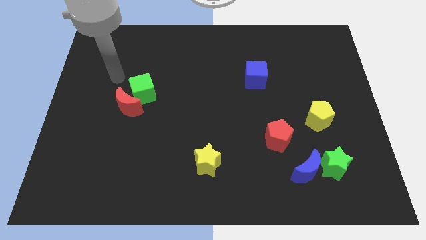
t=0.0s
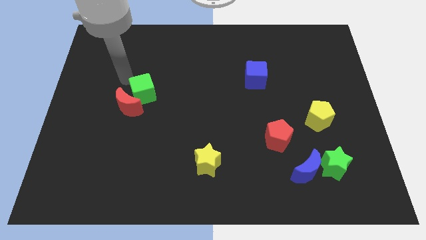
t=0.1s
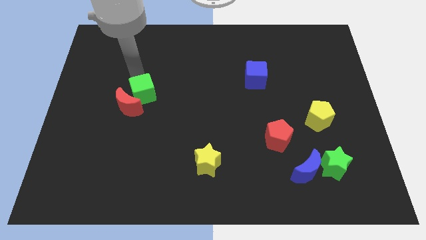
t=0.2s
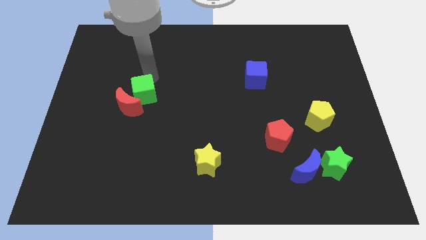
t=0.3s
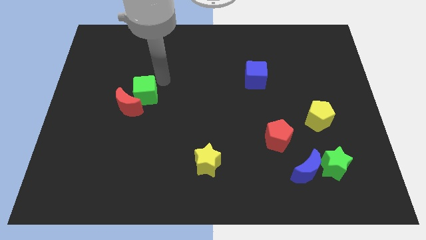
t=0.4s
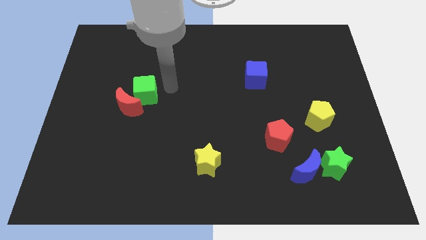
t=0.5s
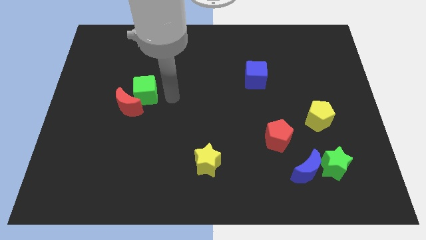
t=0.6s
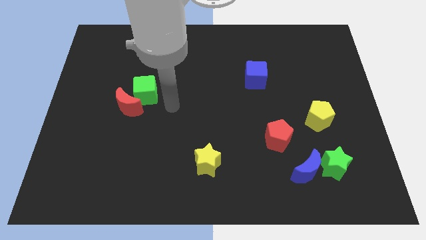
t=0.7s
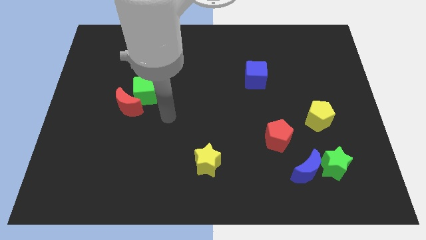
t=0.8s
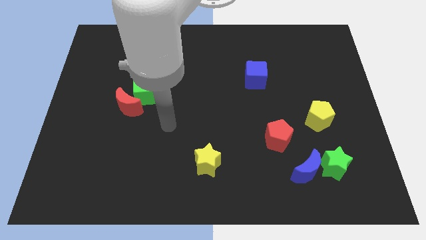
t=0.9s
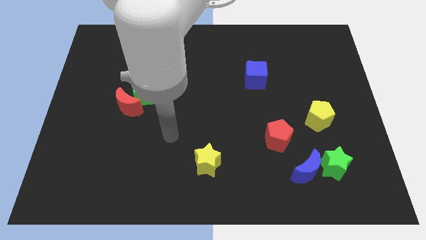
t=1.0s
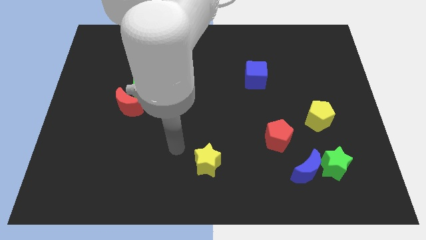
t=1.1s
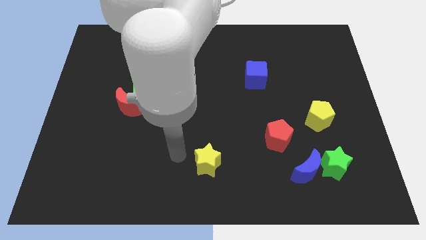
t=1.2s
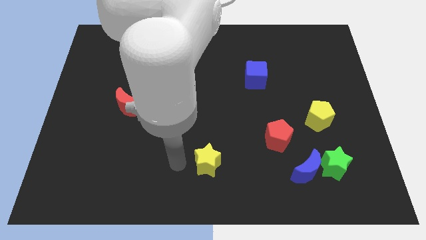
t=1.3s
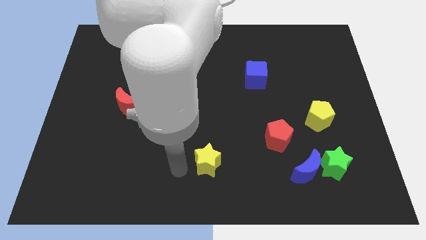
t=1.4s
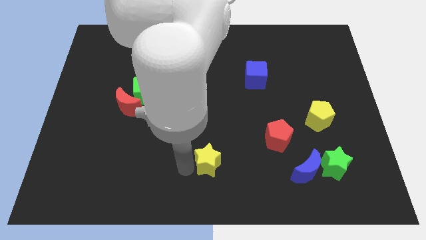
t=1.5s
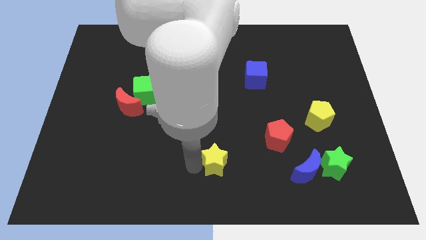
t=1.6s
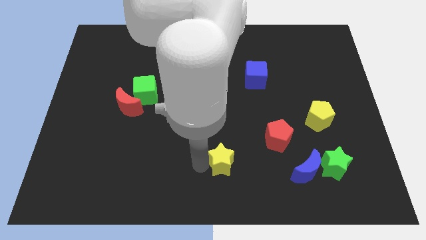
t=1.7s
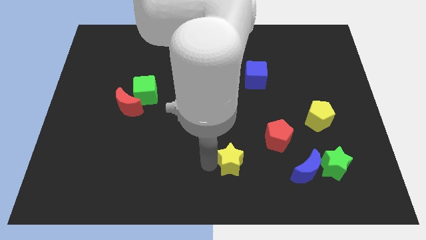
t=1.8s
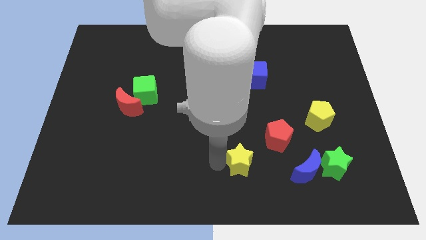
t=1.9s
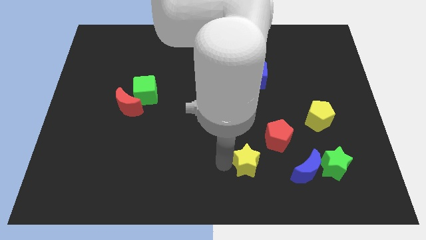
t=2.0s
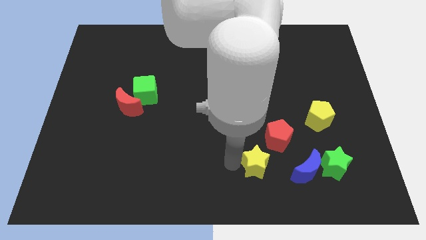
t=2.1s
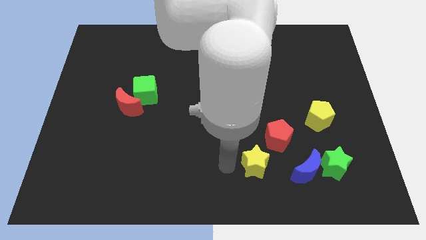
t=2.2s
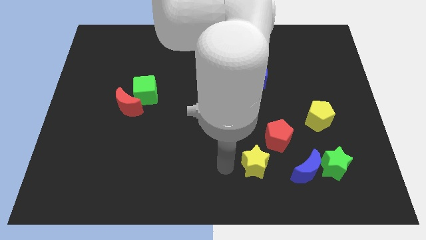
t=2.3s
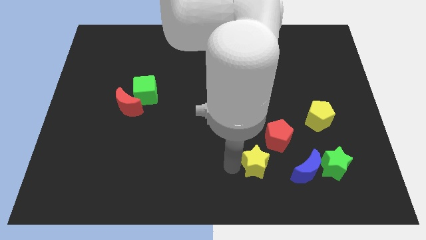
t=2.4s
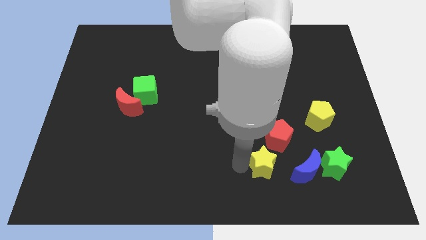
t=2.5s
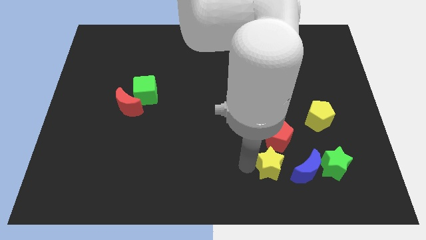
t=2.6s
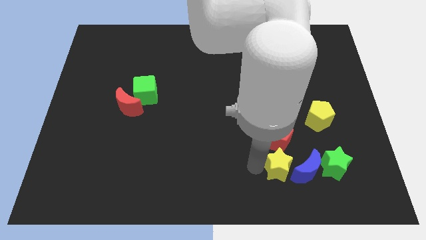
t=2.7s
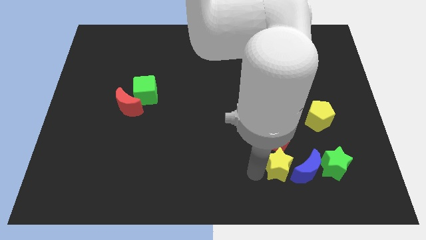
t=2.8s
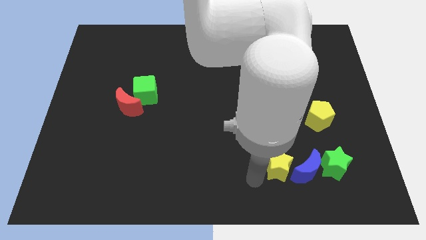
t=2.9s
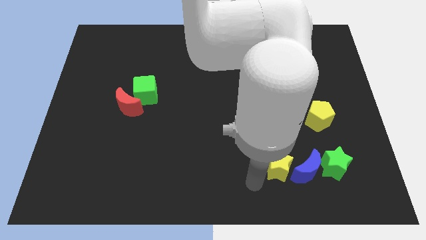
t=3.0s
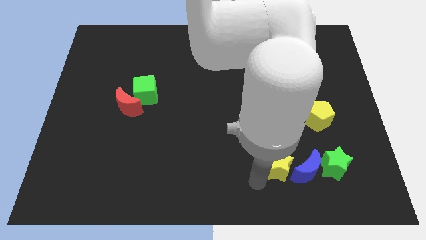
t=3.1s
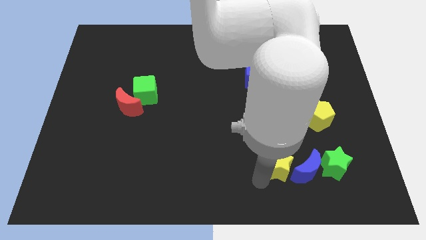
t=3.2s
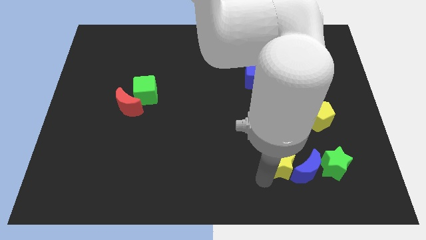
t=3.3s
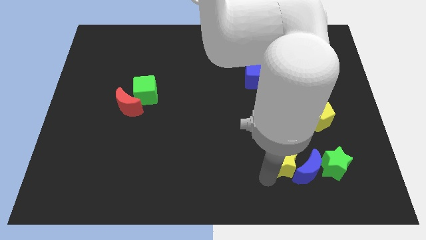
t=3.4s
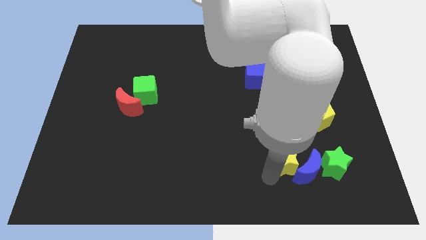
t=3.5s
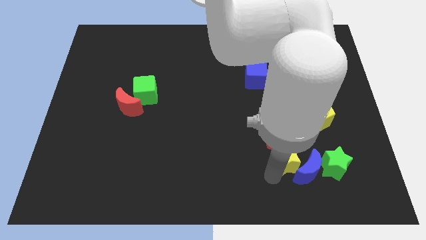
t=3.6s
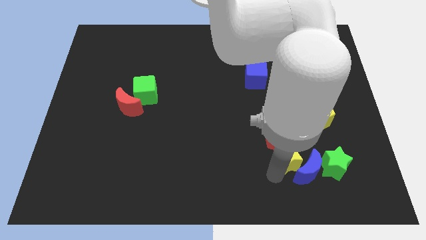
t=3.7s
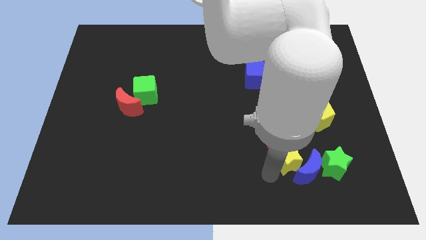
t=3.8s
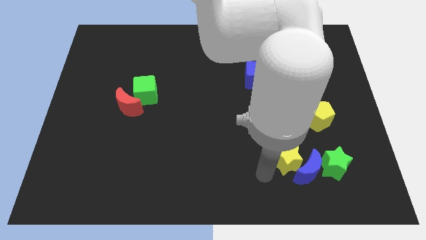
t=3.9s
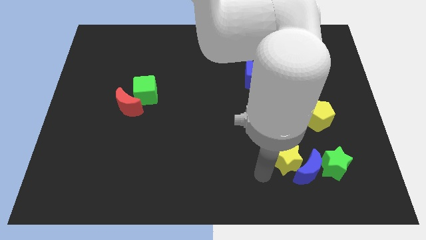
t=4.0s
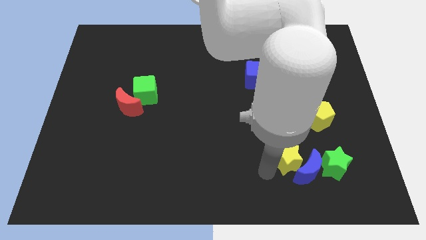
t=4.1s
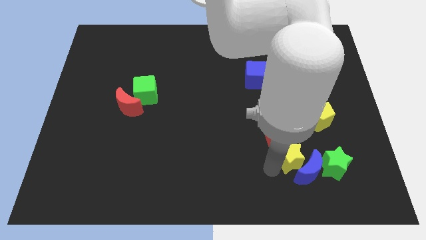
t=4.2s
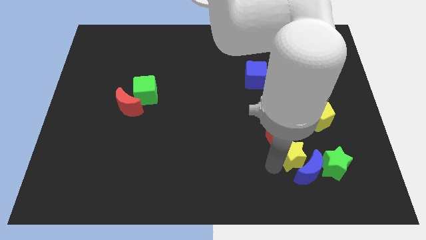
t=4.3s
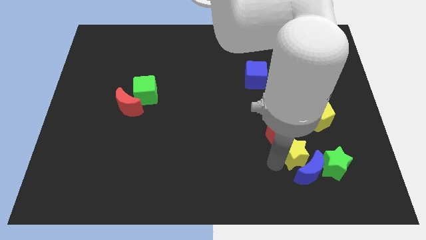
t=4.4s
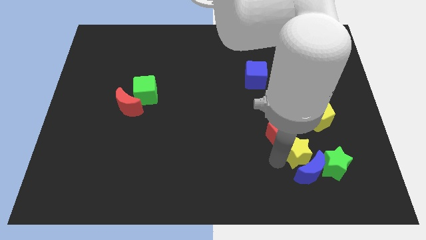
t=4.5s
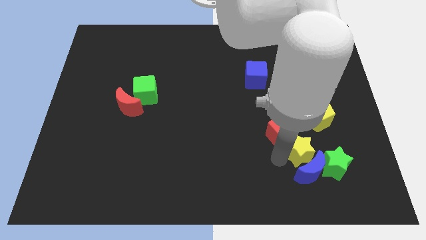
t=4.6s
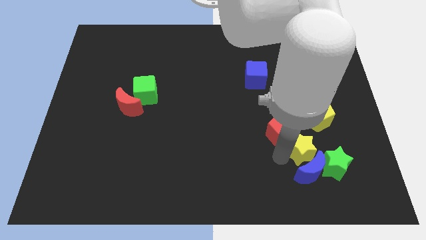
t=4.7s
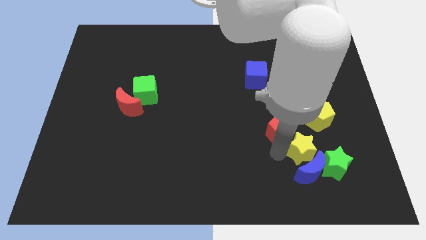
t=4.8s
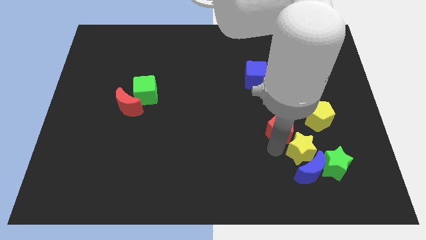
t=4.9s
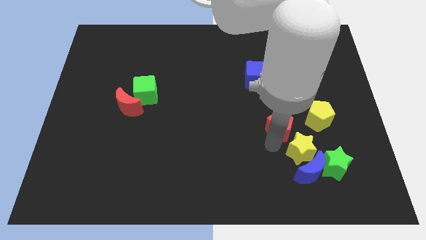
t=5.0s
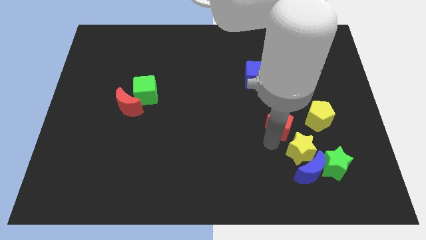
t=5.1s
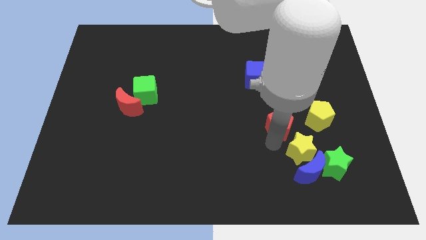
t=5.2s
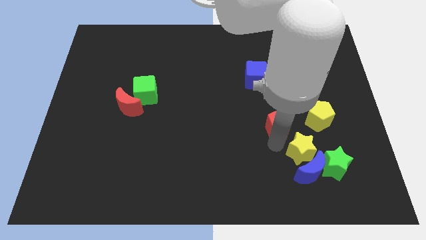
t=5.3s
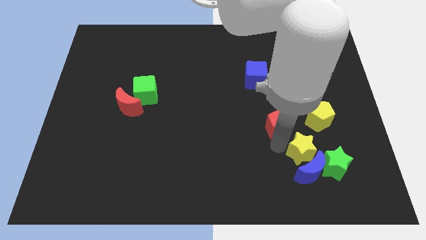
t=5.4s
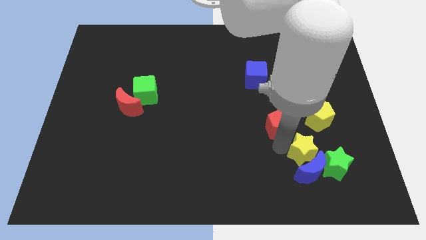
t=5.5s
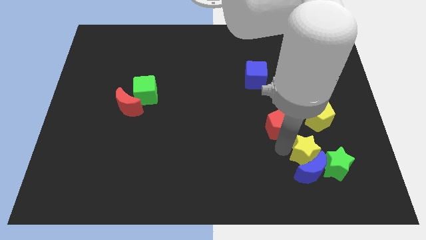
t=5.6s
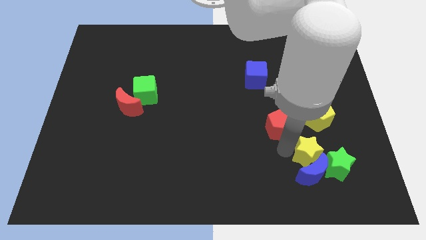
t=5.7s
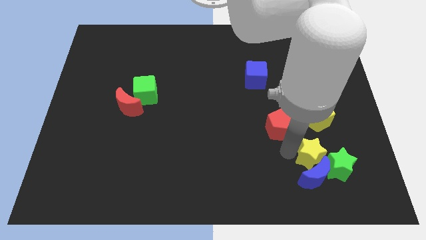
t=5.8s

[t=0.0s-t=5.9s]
put the yellow star towards the green star

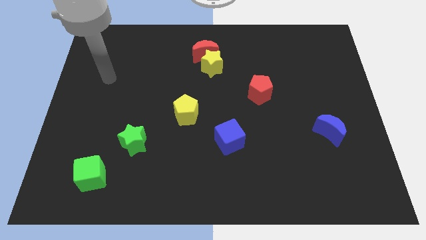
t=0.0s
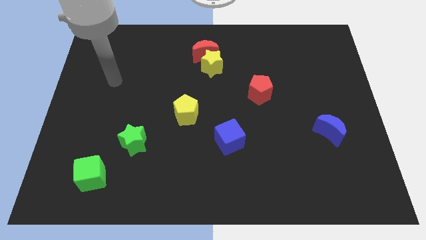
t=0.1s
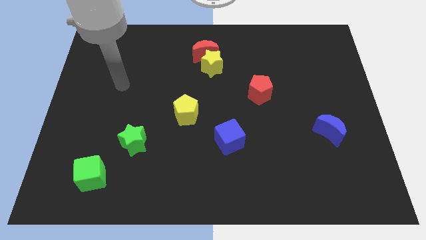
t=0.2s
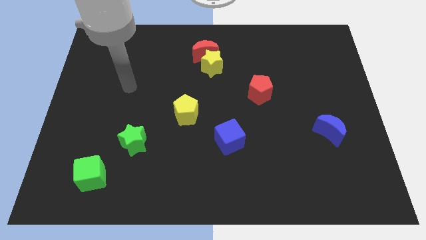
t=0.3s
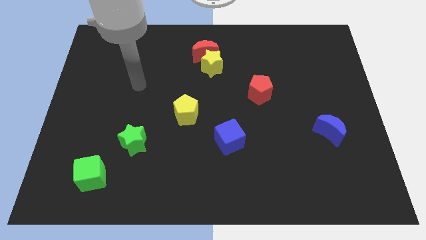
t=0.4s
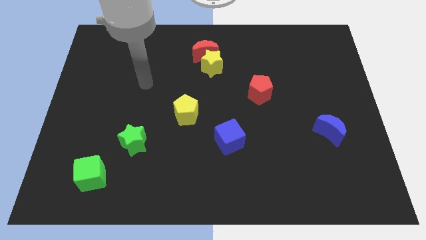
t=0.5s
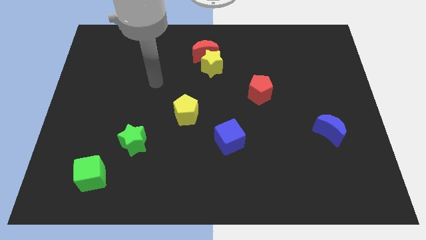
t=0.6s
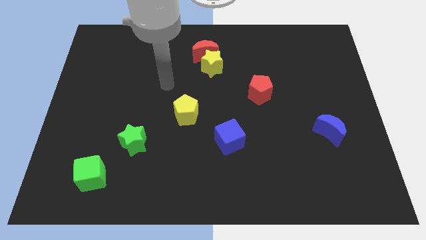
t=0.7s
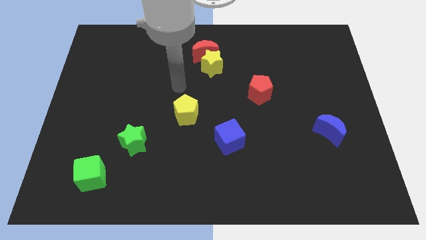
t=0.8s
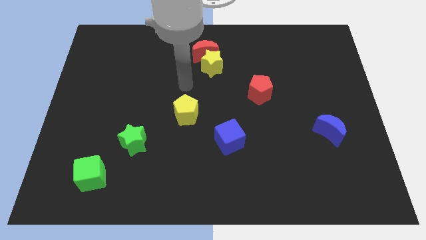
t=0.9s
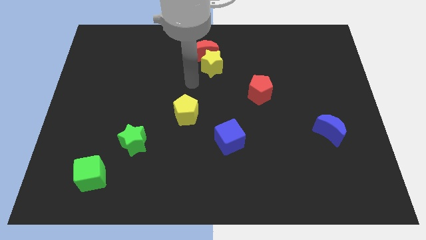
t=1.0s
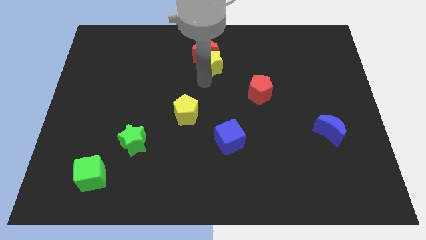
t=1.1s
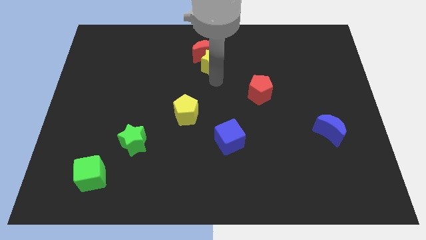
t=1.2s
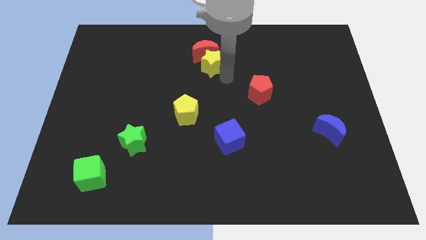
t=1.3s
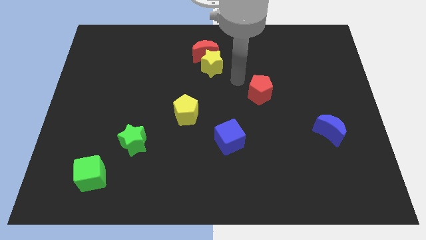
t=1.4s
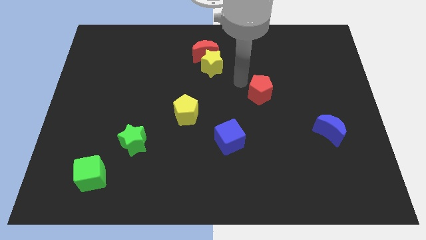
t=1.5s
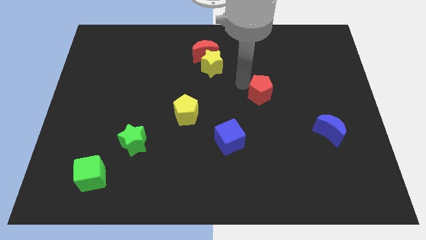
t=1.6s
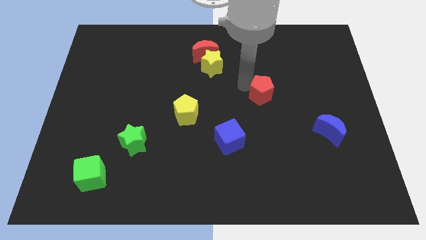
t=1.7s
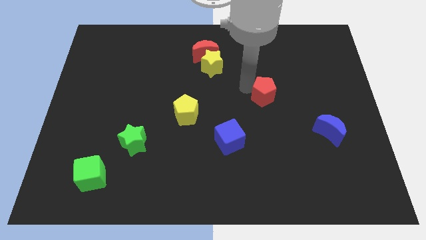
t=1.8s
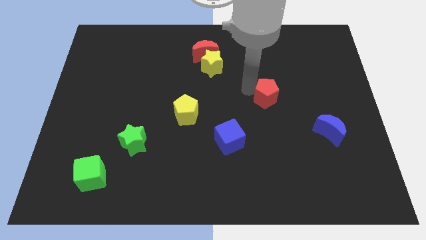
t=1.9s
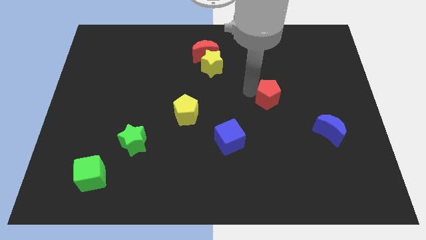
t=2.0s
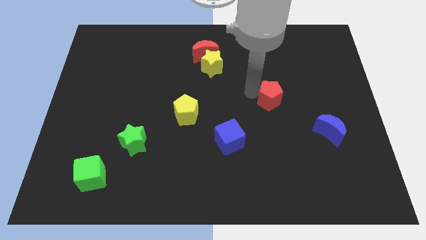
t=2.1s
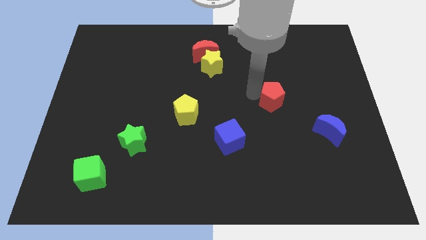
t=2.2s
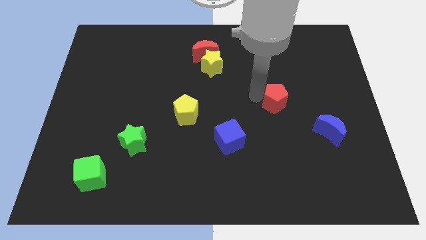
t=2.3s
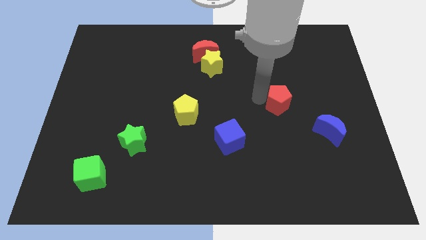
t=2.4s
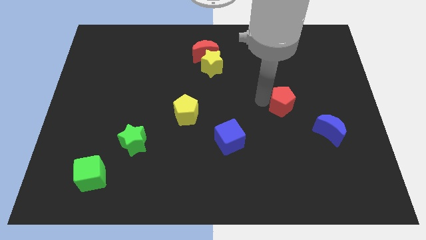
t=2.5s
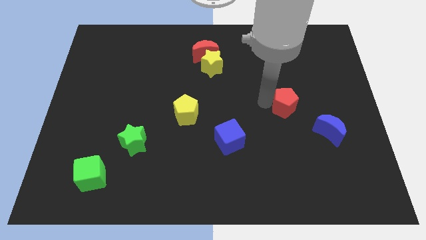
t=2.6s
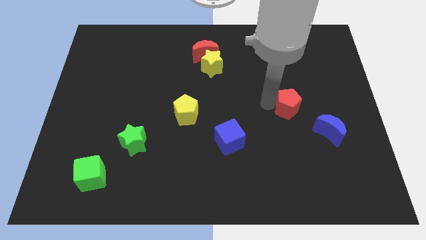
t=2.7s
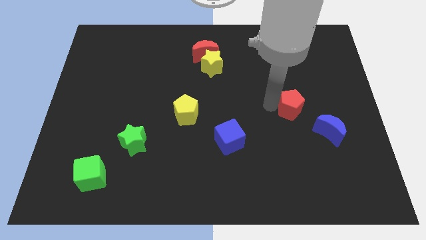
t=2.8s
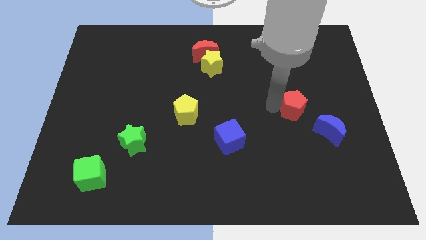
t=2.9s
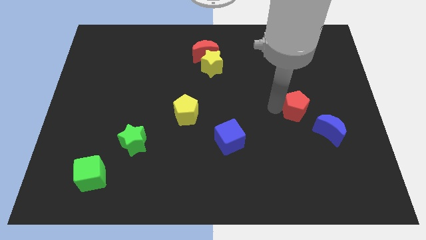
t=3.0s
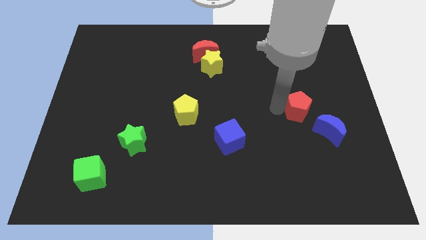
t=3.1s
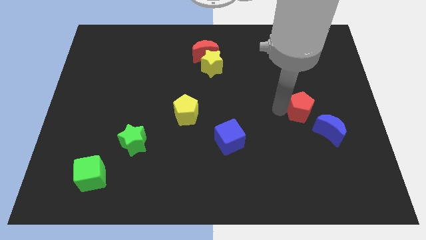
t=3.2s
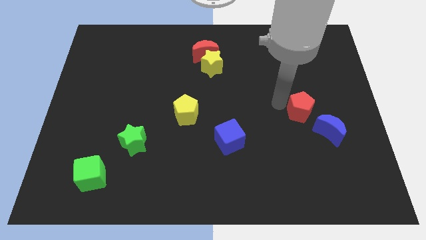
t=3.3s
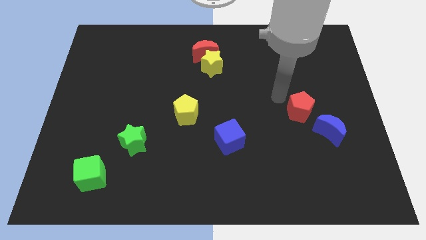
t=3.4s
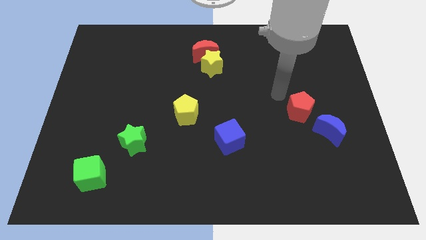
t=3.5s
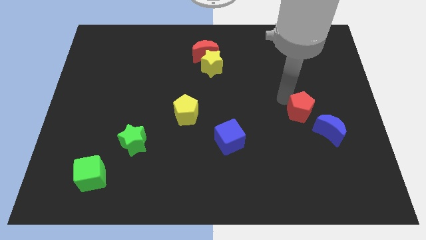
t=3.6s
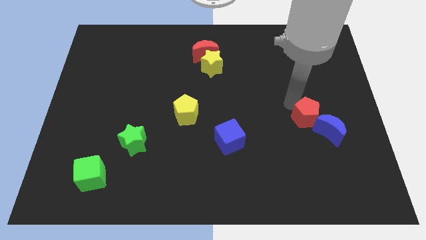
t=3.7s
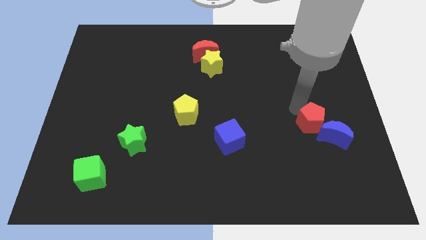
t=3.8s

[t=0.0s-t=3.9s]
move the red pentagon to the blue moon
